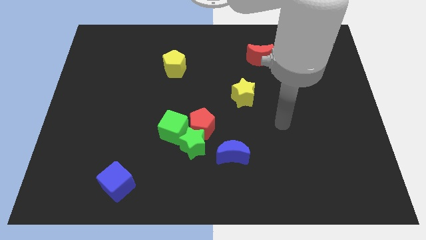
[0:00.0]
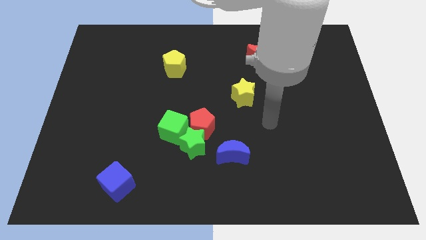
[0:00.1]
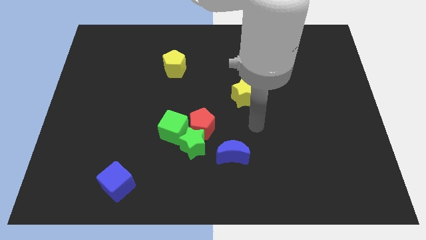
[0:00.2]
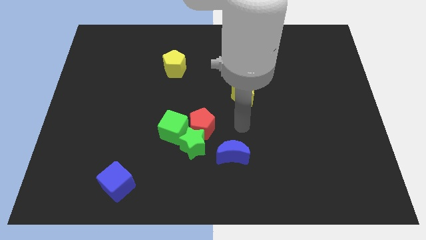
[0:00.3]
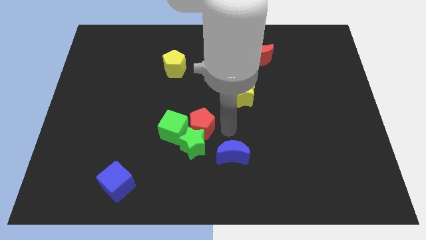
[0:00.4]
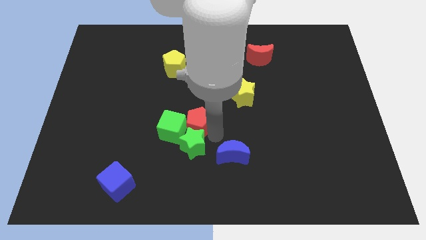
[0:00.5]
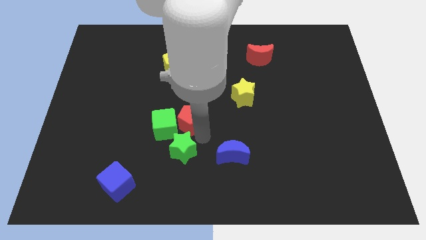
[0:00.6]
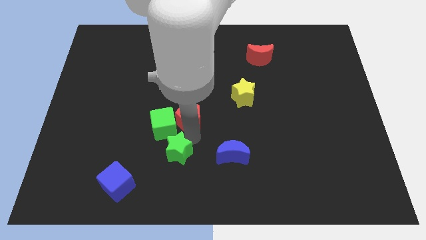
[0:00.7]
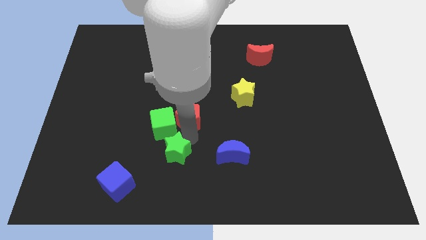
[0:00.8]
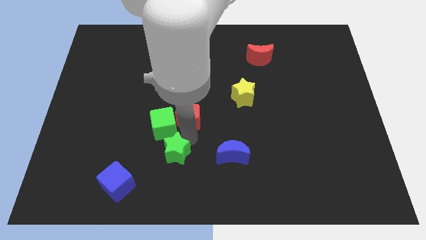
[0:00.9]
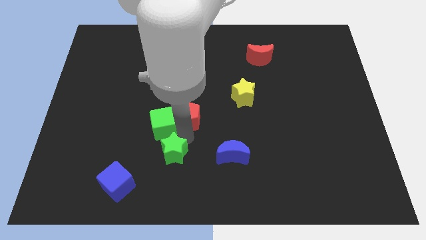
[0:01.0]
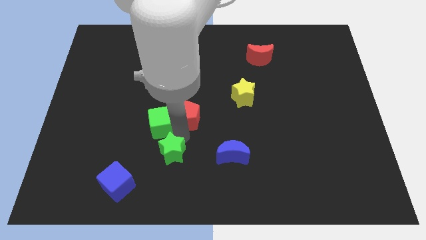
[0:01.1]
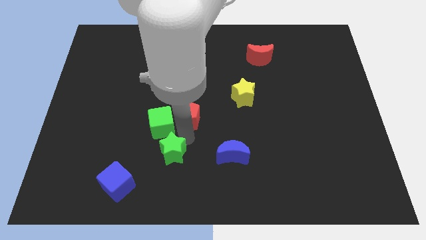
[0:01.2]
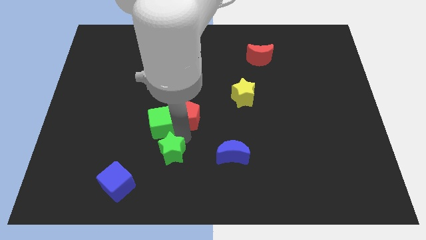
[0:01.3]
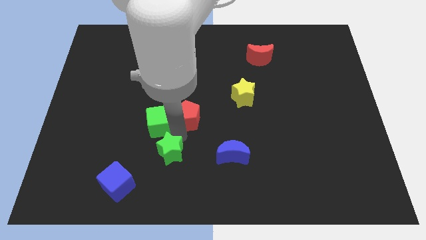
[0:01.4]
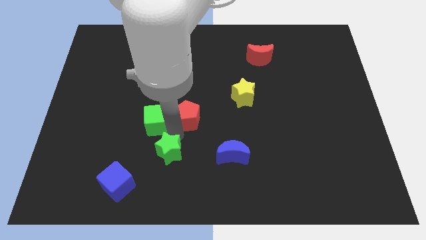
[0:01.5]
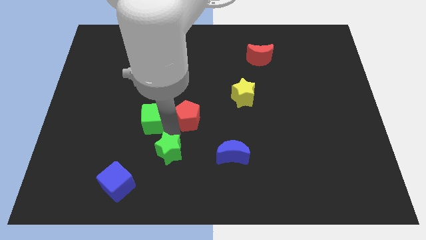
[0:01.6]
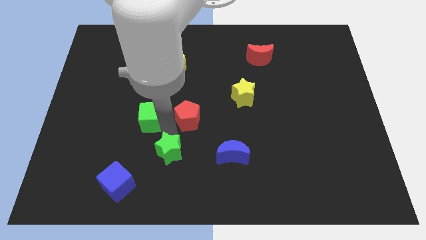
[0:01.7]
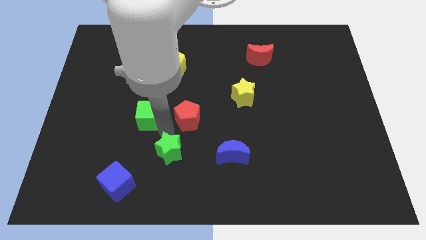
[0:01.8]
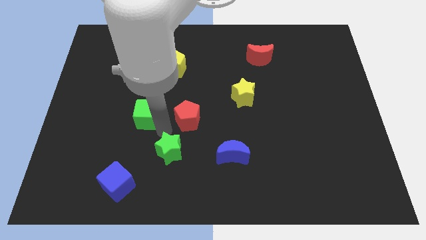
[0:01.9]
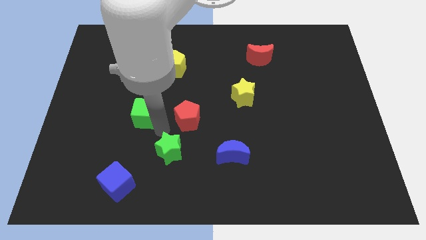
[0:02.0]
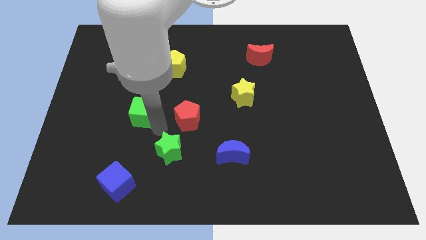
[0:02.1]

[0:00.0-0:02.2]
pull the green cube apart from the green star and red pentagon

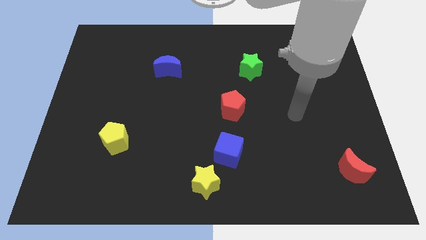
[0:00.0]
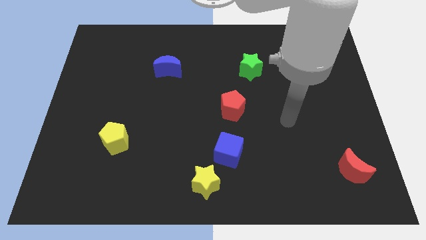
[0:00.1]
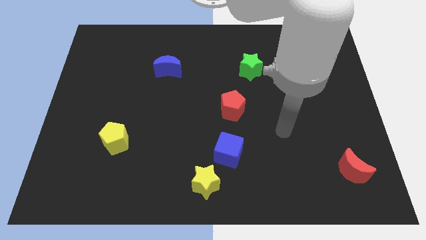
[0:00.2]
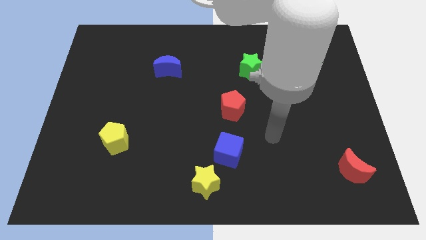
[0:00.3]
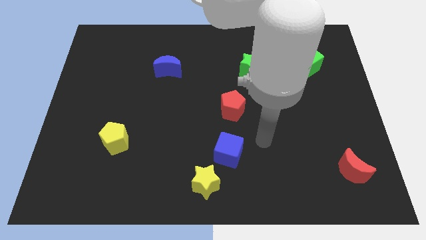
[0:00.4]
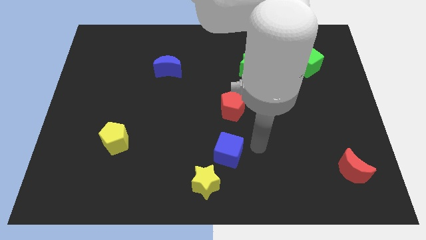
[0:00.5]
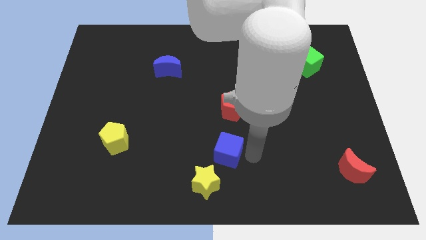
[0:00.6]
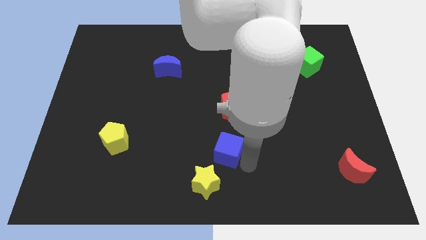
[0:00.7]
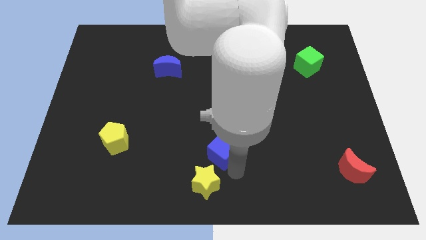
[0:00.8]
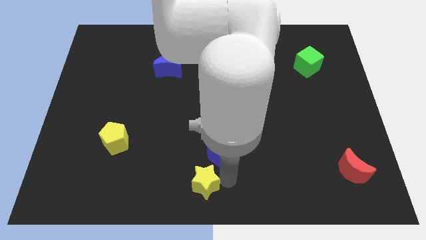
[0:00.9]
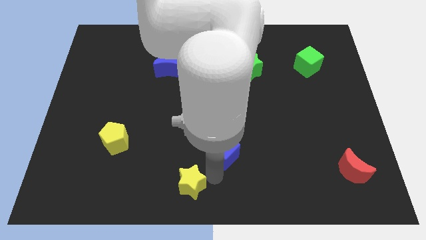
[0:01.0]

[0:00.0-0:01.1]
move the blue cube away from the yellow star

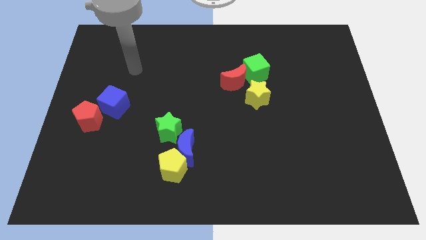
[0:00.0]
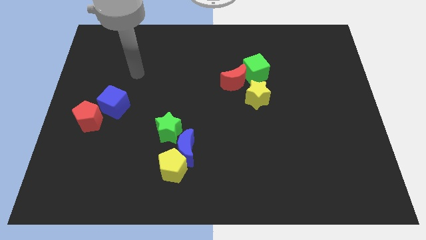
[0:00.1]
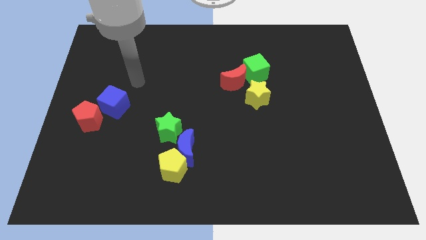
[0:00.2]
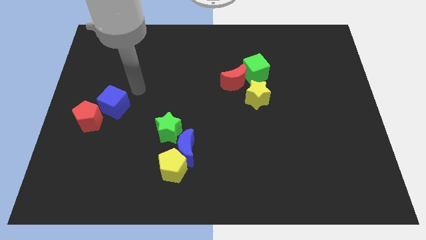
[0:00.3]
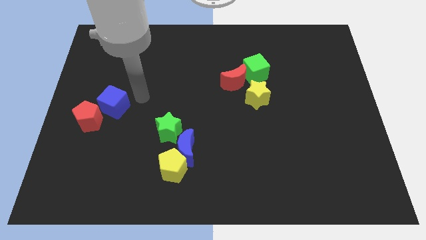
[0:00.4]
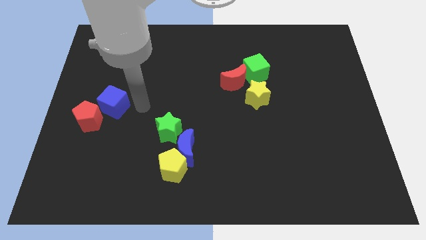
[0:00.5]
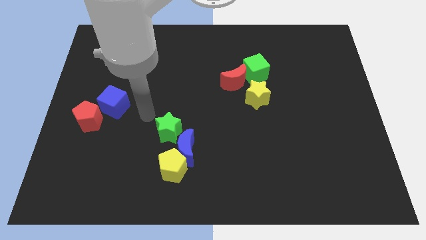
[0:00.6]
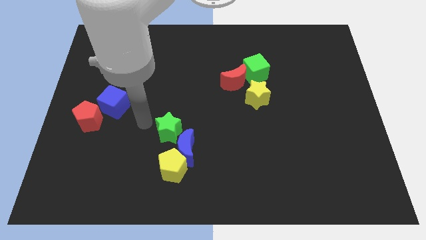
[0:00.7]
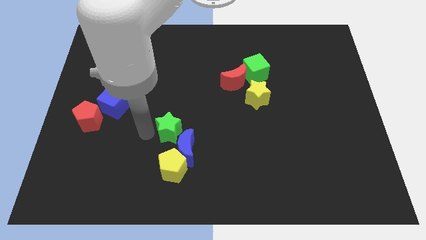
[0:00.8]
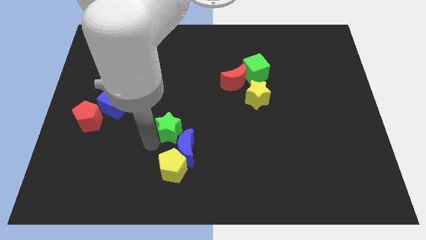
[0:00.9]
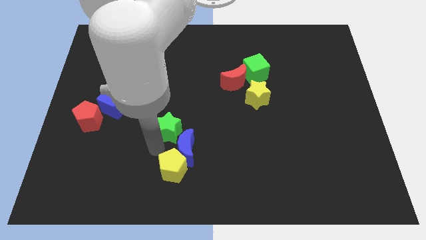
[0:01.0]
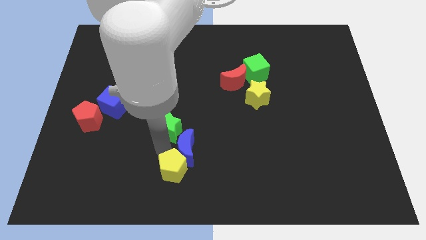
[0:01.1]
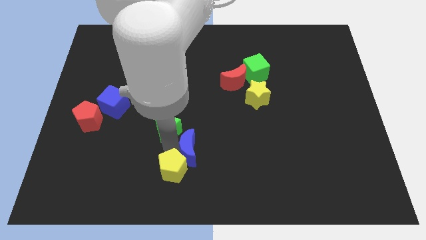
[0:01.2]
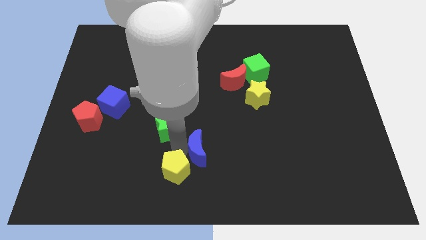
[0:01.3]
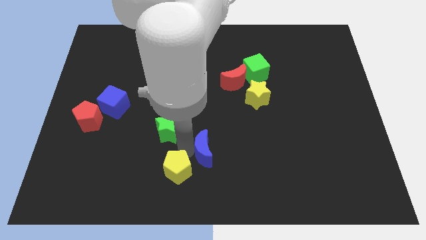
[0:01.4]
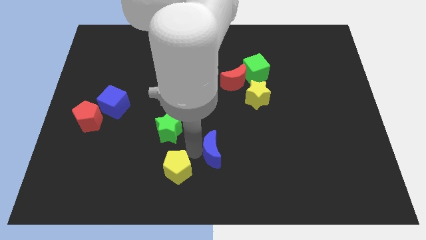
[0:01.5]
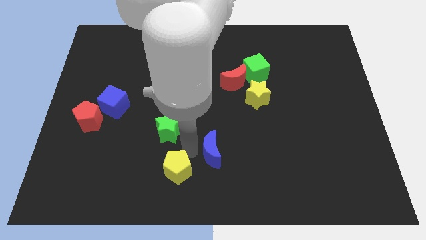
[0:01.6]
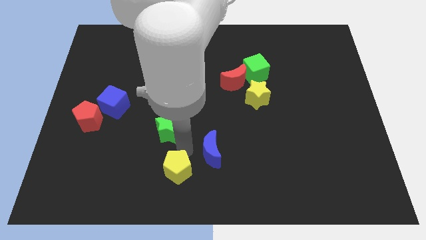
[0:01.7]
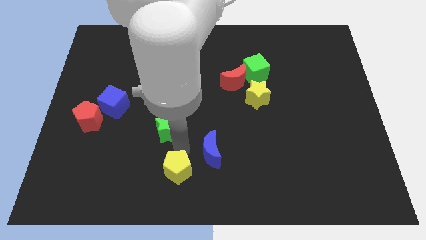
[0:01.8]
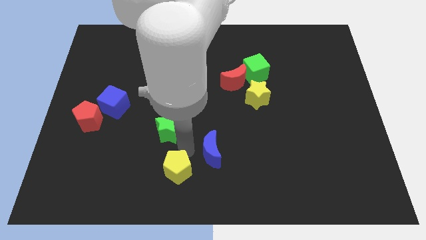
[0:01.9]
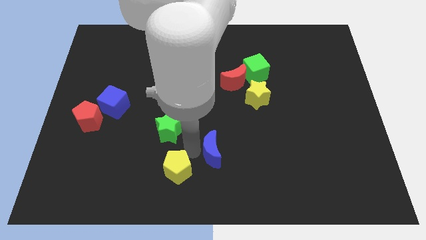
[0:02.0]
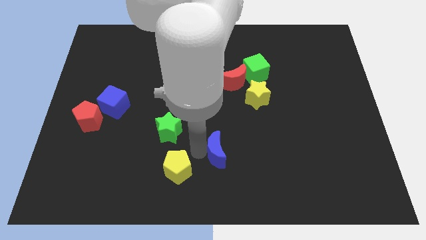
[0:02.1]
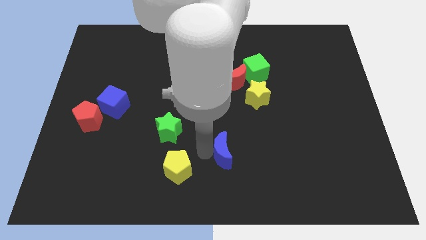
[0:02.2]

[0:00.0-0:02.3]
pull the blue moon apart from the yellow pentagon and green star

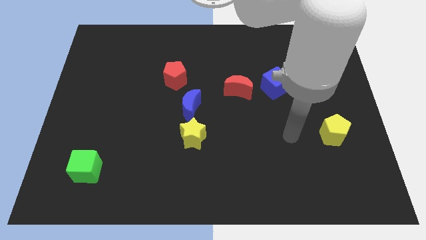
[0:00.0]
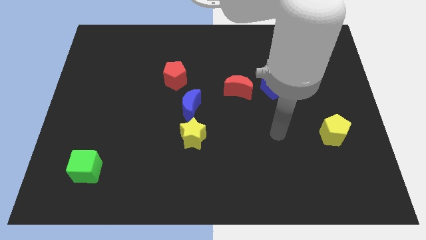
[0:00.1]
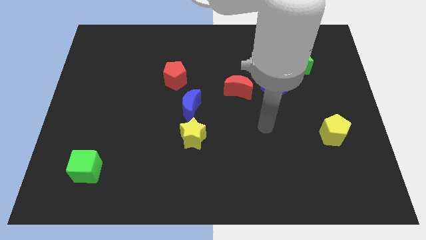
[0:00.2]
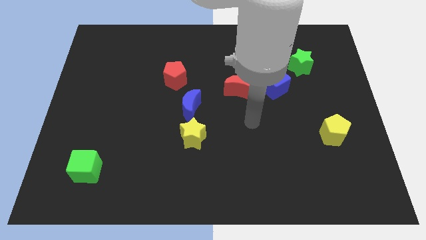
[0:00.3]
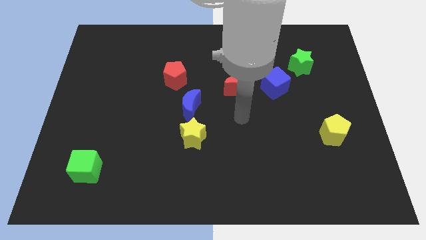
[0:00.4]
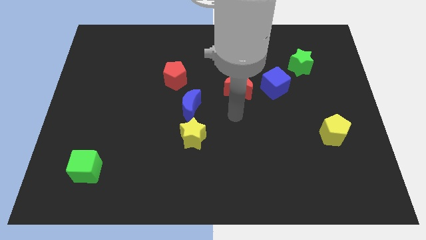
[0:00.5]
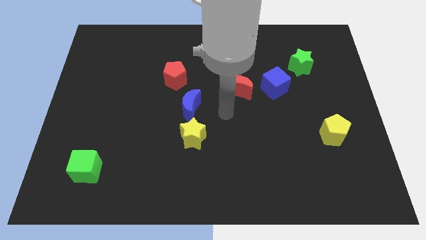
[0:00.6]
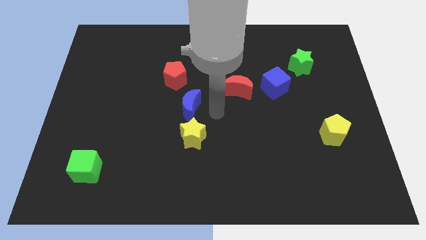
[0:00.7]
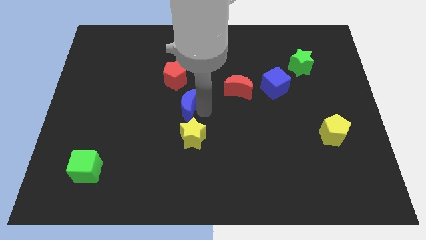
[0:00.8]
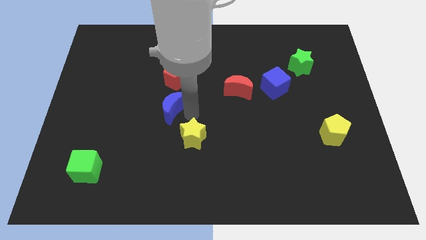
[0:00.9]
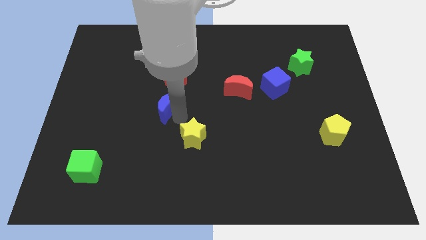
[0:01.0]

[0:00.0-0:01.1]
move the yellow star away from the blue moon

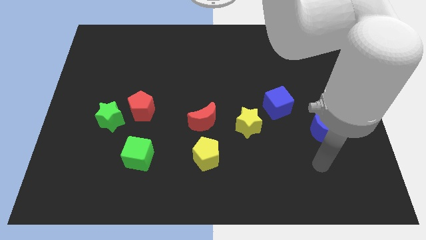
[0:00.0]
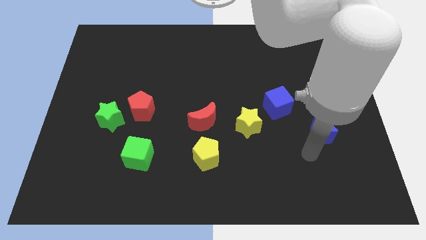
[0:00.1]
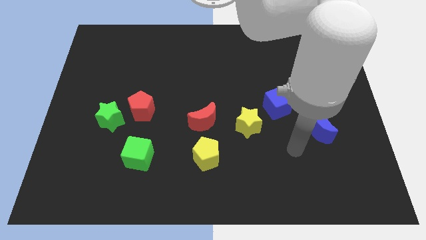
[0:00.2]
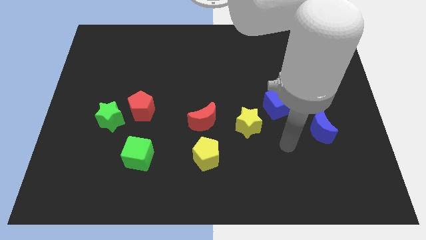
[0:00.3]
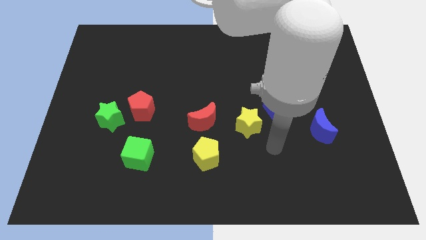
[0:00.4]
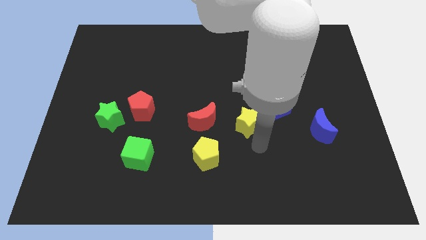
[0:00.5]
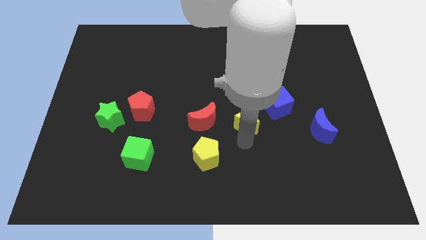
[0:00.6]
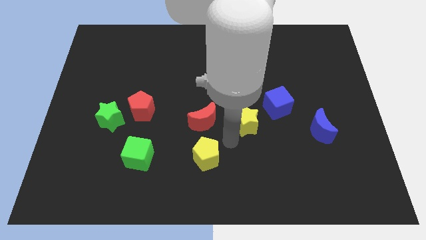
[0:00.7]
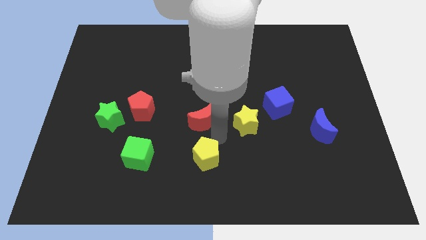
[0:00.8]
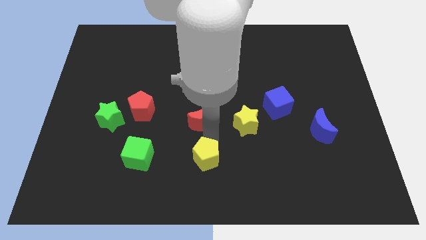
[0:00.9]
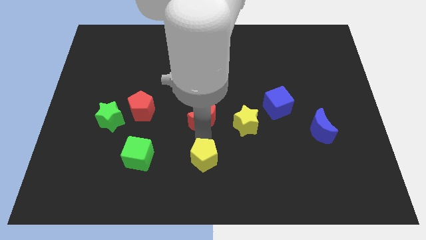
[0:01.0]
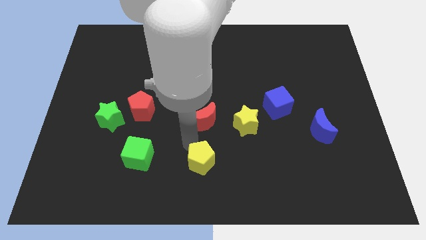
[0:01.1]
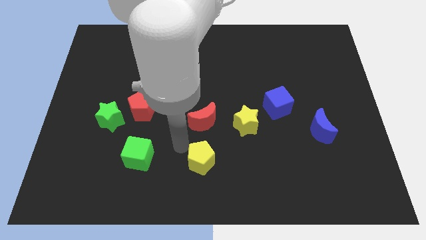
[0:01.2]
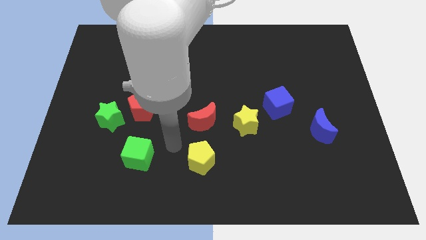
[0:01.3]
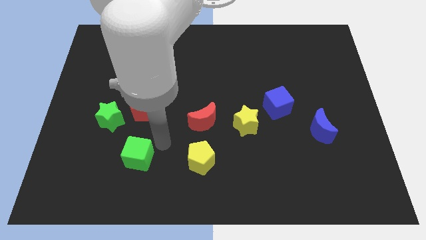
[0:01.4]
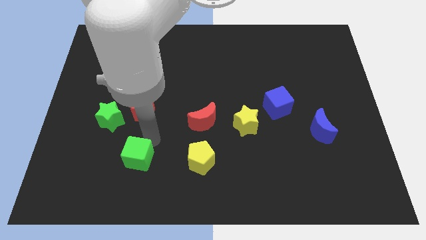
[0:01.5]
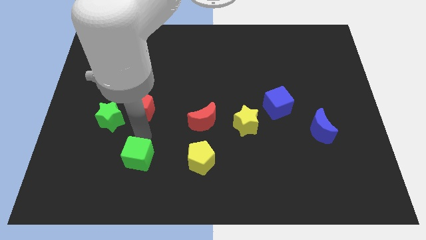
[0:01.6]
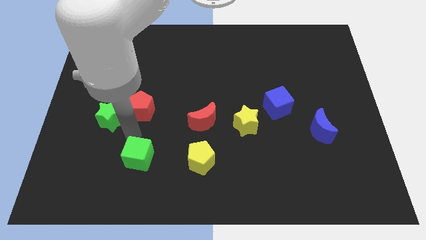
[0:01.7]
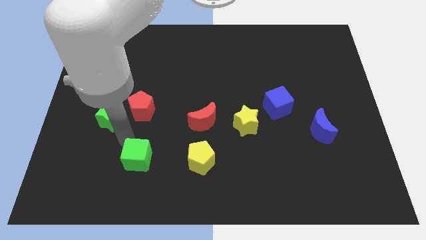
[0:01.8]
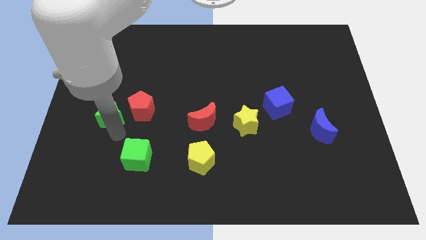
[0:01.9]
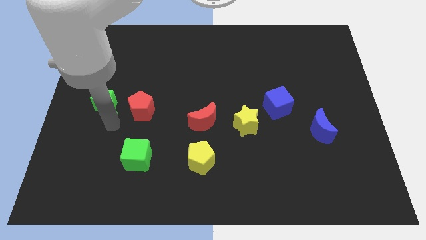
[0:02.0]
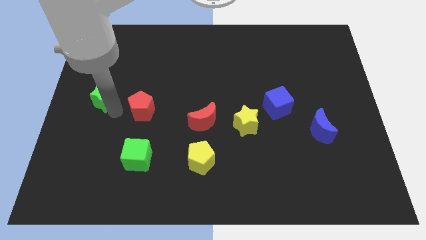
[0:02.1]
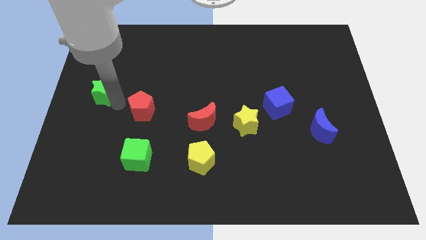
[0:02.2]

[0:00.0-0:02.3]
separate the red pentagon from the green star

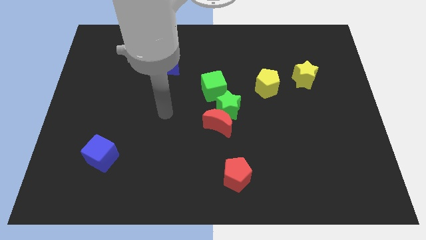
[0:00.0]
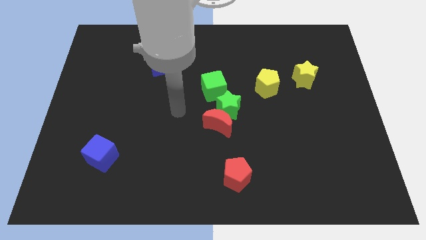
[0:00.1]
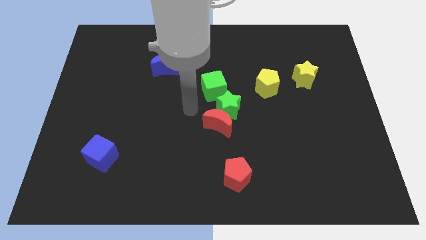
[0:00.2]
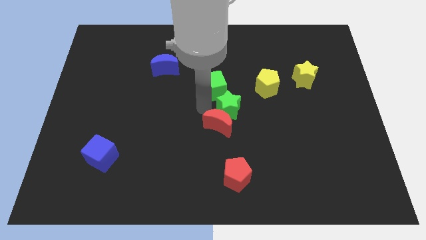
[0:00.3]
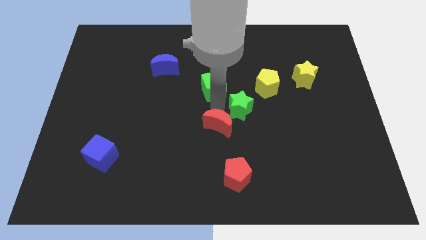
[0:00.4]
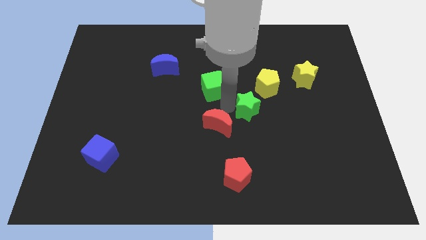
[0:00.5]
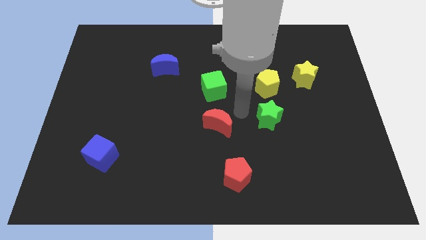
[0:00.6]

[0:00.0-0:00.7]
separate the red moon from the green star
